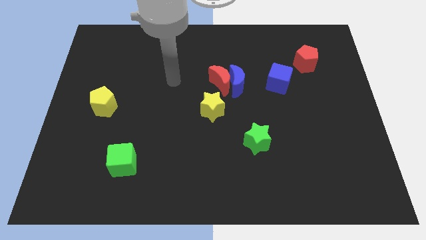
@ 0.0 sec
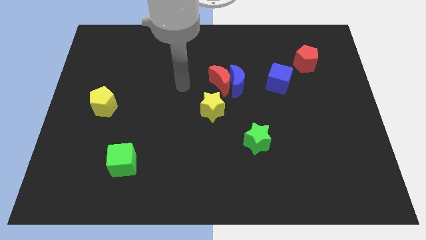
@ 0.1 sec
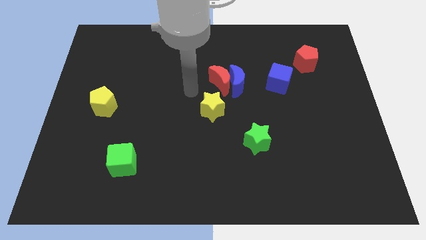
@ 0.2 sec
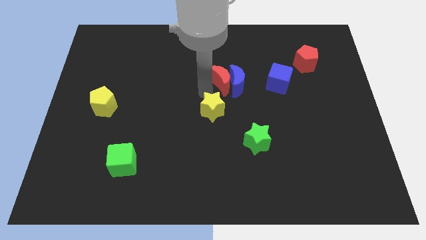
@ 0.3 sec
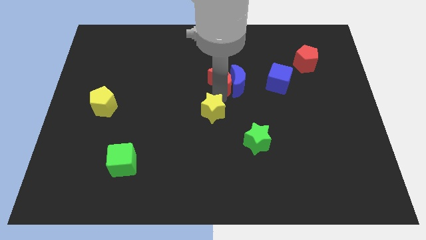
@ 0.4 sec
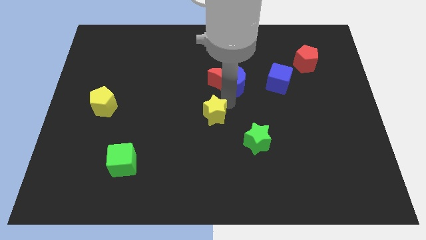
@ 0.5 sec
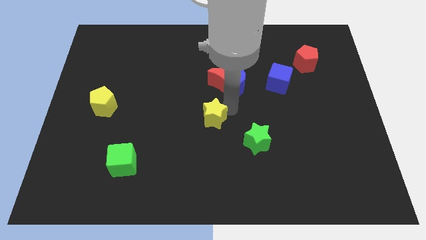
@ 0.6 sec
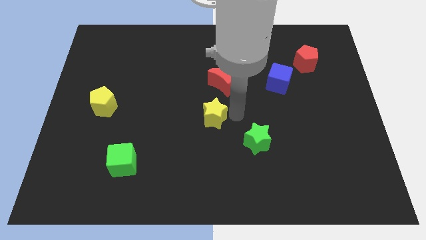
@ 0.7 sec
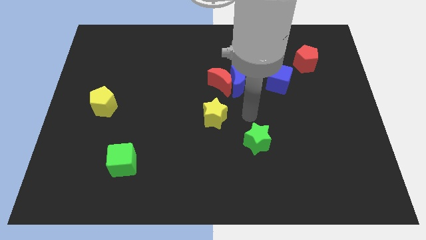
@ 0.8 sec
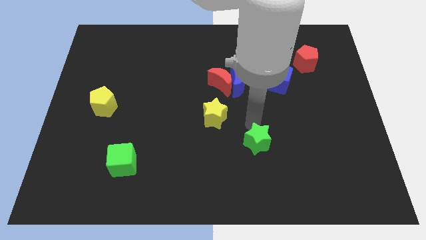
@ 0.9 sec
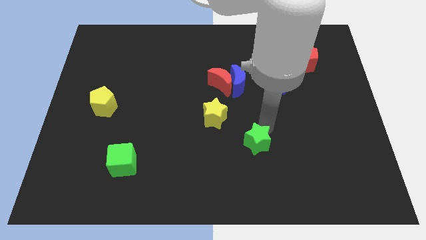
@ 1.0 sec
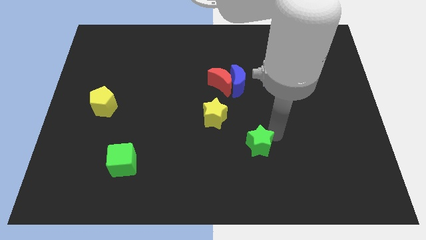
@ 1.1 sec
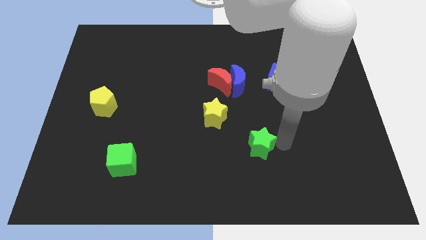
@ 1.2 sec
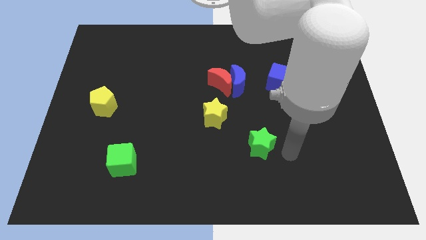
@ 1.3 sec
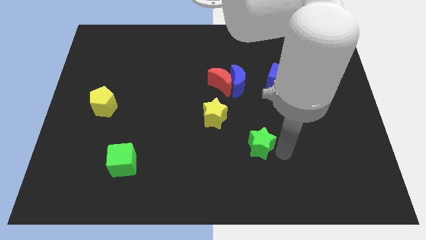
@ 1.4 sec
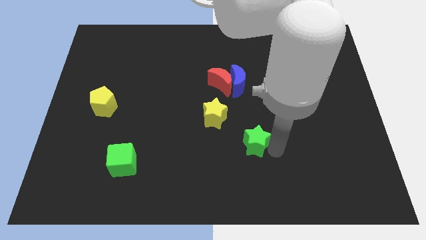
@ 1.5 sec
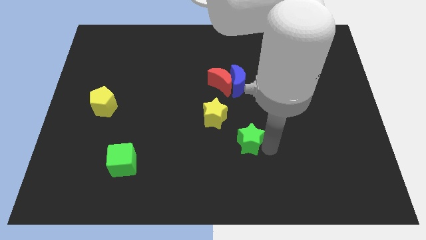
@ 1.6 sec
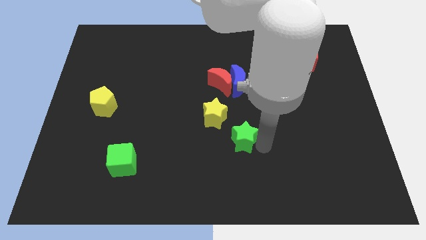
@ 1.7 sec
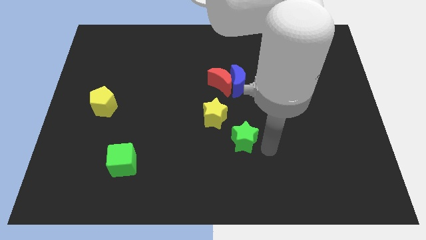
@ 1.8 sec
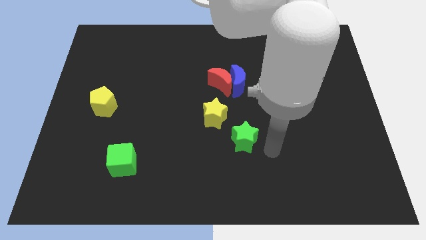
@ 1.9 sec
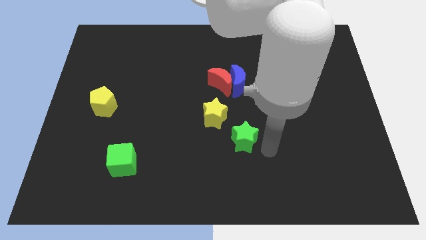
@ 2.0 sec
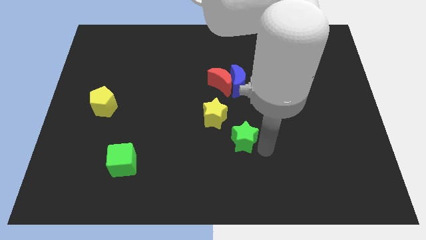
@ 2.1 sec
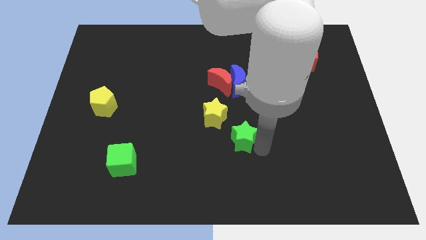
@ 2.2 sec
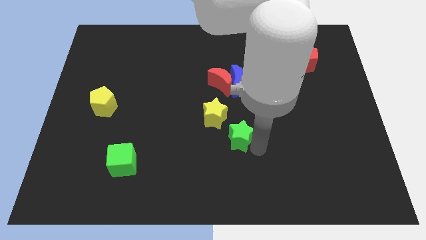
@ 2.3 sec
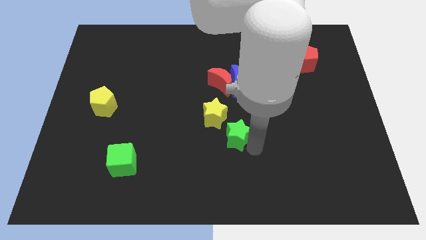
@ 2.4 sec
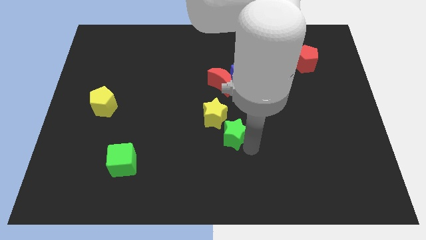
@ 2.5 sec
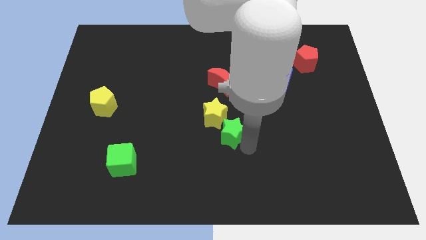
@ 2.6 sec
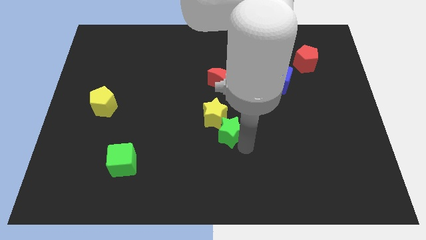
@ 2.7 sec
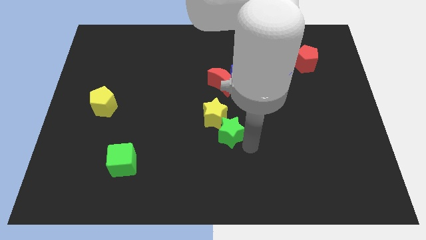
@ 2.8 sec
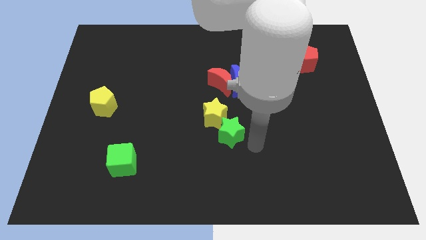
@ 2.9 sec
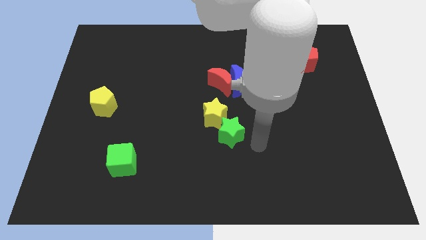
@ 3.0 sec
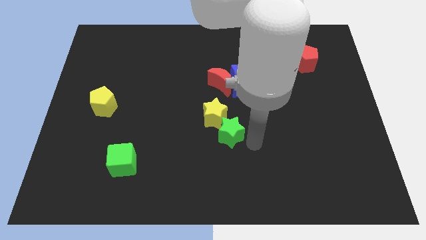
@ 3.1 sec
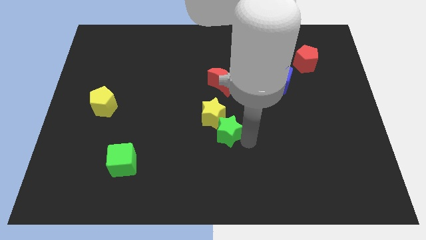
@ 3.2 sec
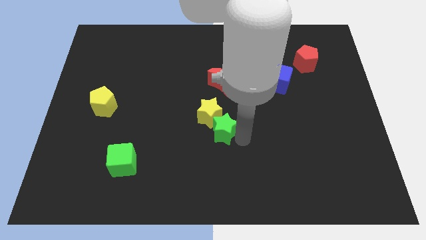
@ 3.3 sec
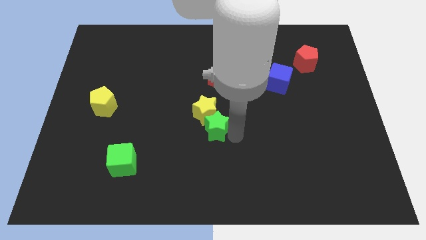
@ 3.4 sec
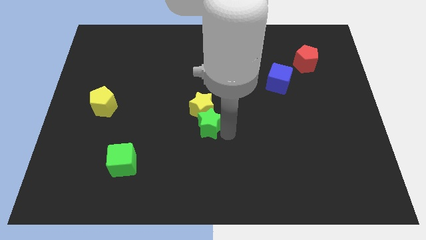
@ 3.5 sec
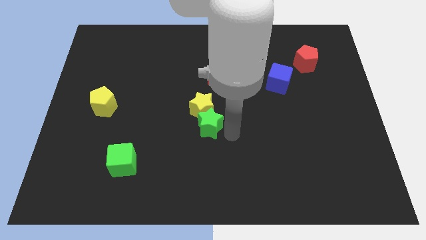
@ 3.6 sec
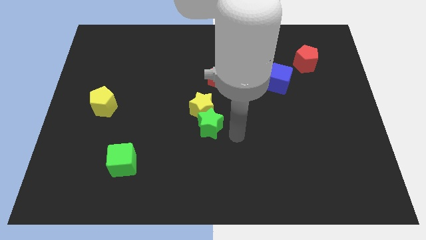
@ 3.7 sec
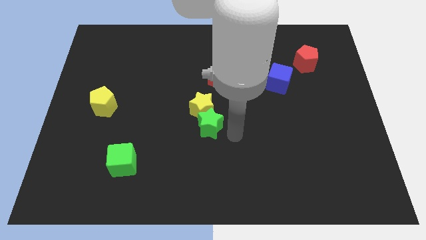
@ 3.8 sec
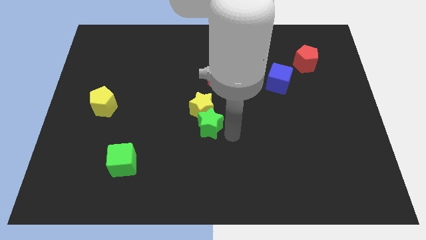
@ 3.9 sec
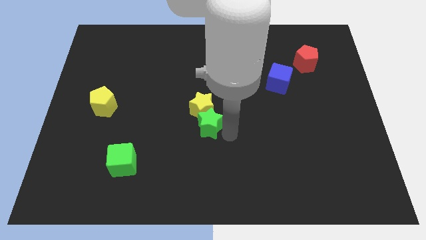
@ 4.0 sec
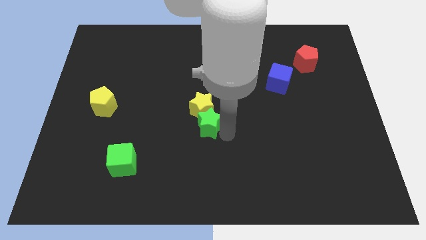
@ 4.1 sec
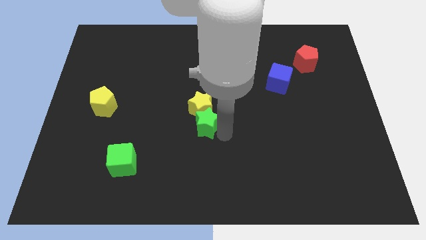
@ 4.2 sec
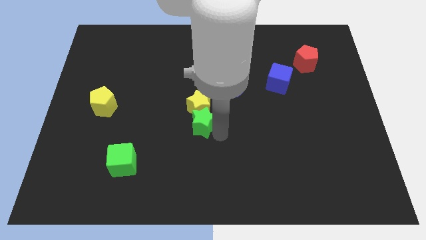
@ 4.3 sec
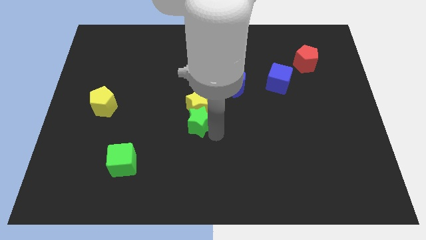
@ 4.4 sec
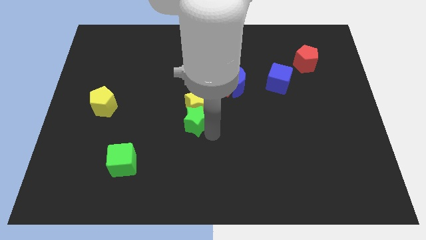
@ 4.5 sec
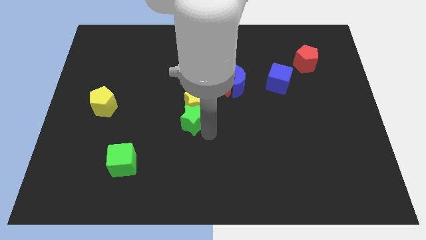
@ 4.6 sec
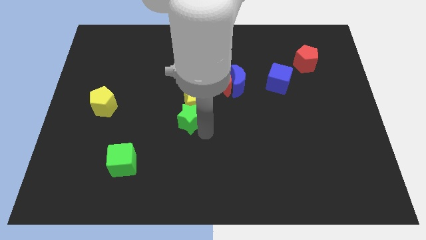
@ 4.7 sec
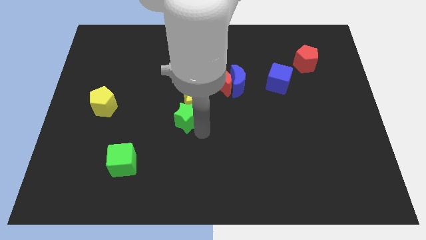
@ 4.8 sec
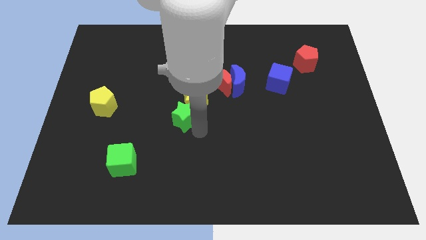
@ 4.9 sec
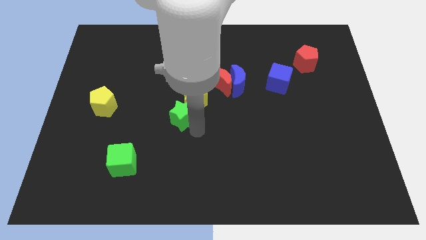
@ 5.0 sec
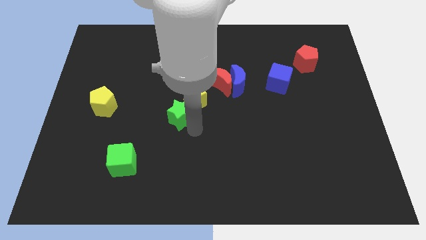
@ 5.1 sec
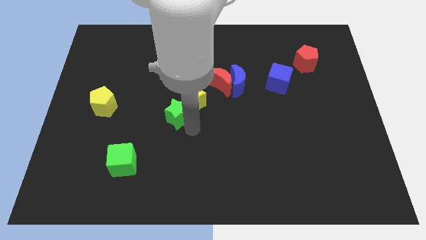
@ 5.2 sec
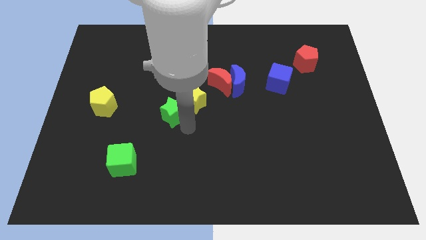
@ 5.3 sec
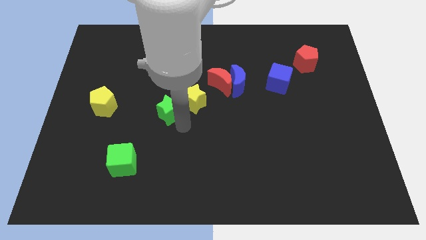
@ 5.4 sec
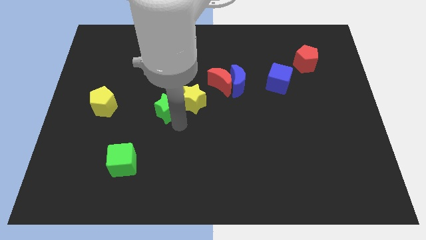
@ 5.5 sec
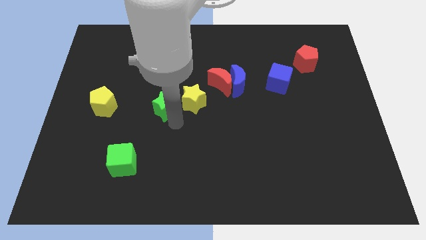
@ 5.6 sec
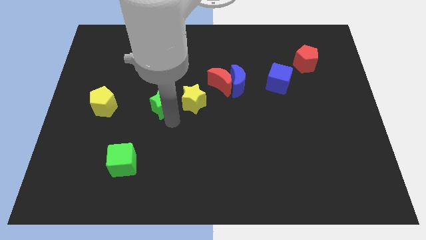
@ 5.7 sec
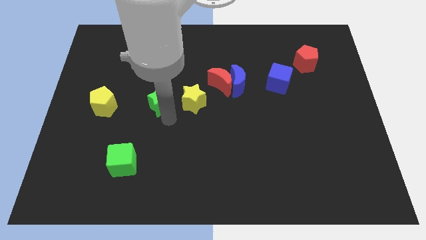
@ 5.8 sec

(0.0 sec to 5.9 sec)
slide the green star diagonally upwards and to the left

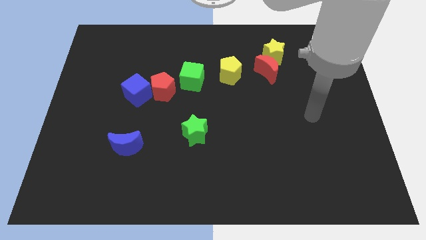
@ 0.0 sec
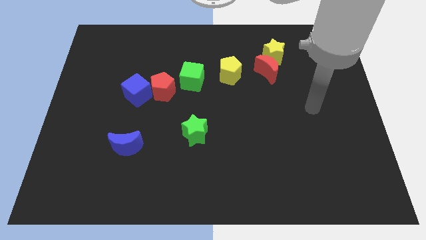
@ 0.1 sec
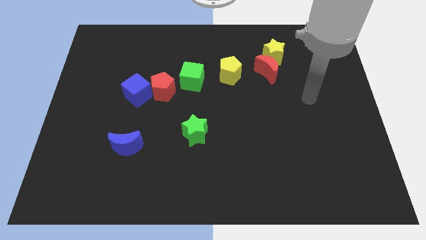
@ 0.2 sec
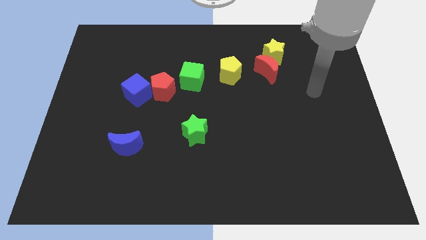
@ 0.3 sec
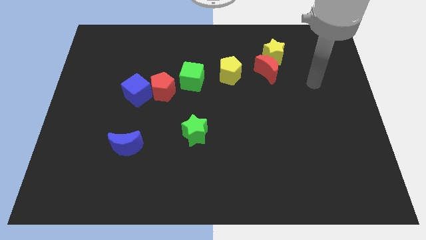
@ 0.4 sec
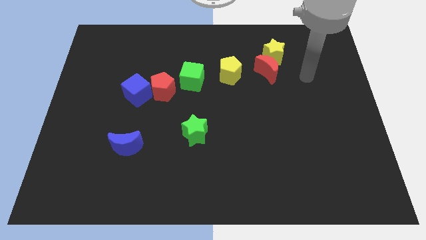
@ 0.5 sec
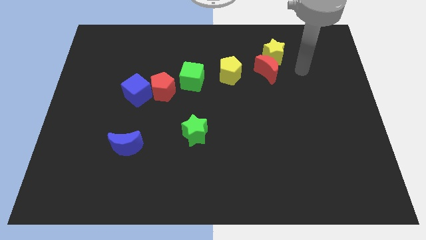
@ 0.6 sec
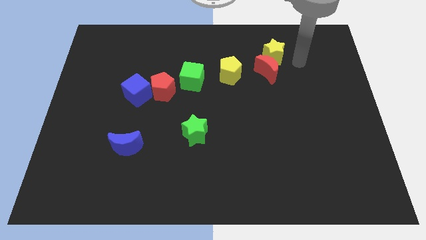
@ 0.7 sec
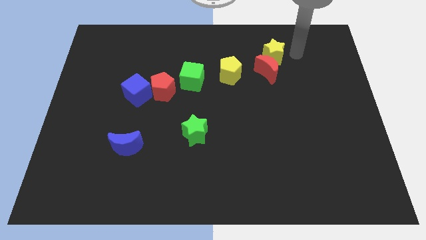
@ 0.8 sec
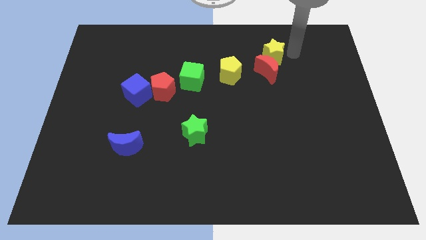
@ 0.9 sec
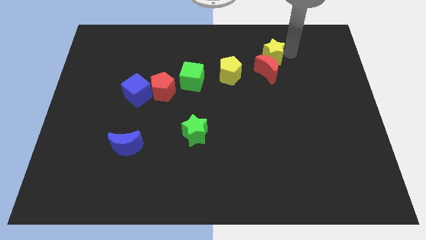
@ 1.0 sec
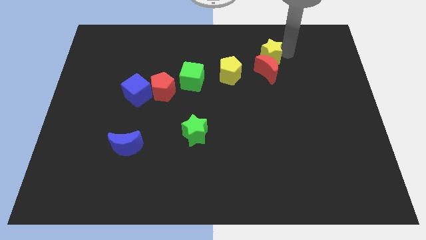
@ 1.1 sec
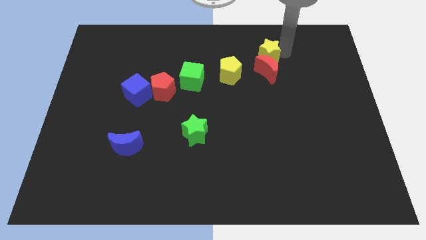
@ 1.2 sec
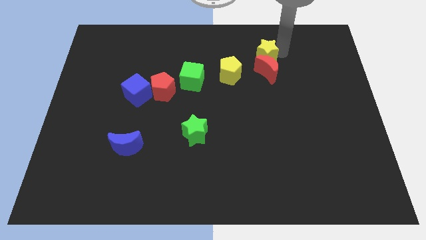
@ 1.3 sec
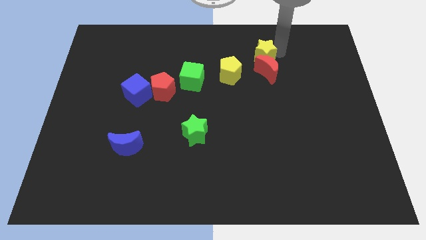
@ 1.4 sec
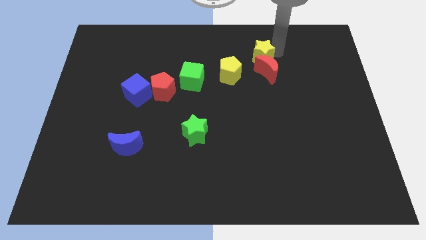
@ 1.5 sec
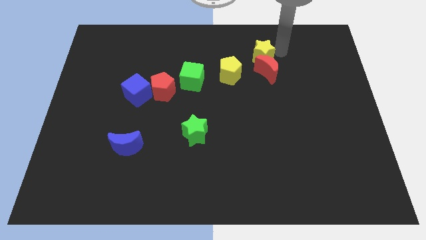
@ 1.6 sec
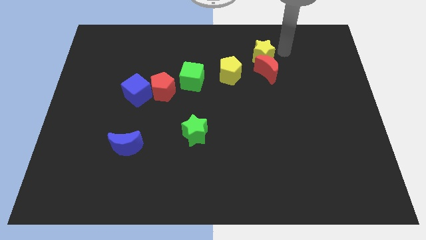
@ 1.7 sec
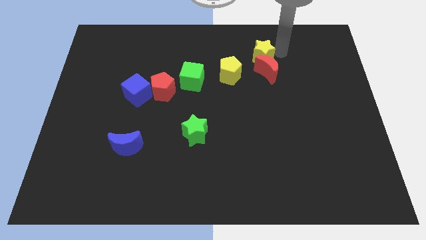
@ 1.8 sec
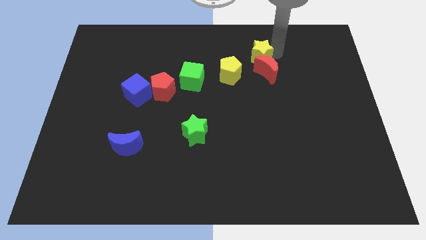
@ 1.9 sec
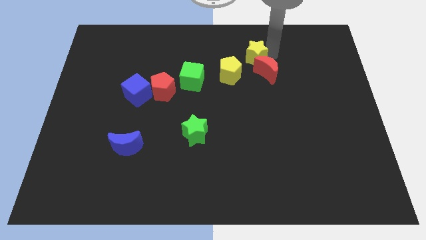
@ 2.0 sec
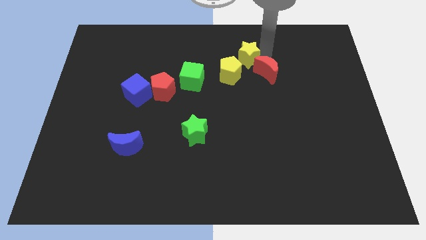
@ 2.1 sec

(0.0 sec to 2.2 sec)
move the yellow star slightly to the left
